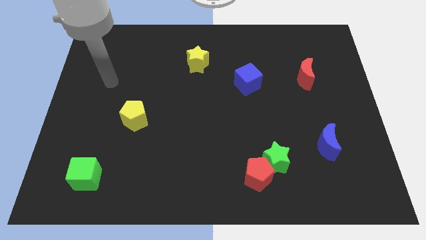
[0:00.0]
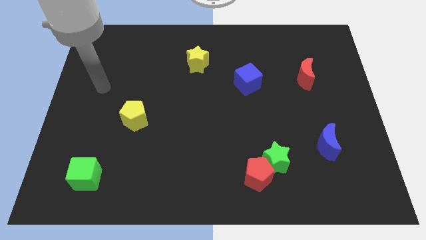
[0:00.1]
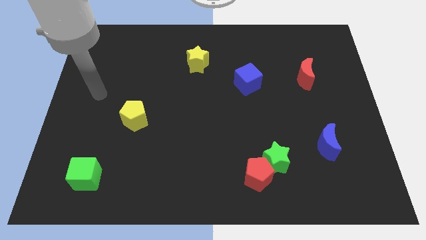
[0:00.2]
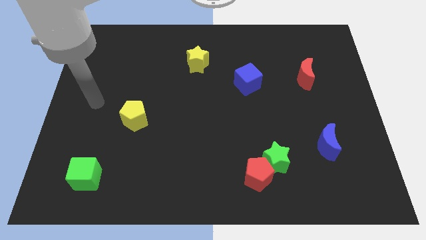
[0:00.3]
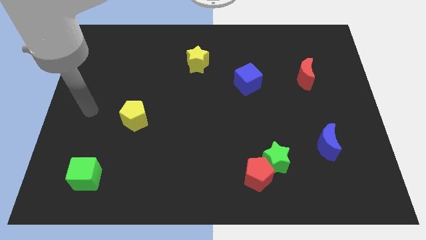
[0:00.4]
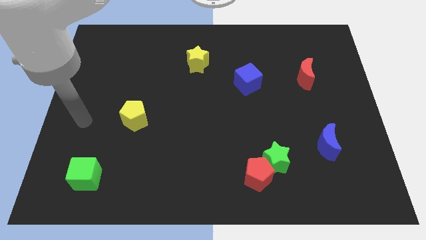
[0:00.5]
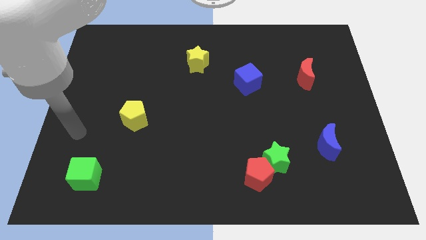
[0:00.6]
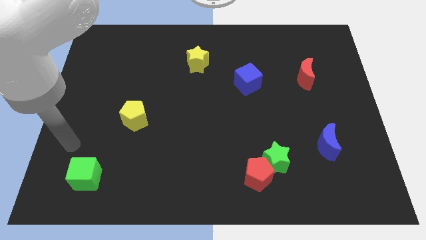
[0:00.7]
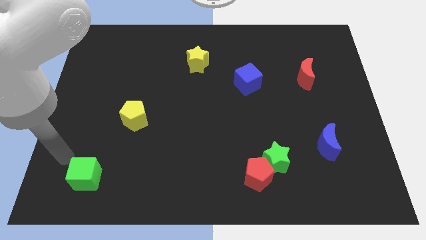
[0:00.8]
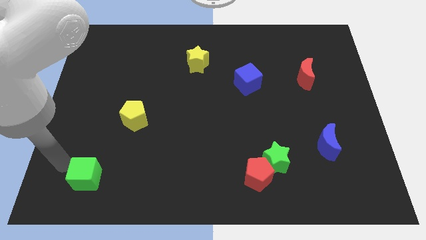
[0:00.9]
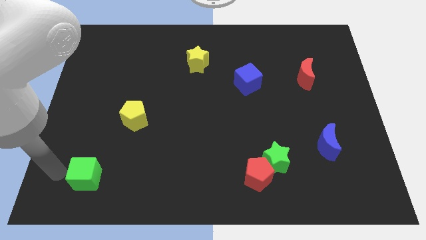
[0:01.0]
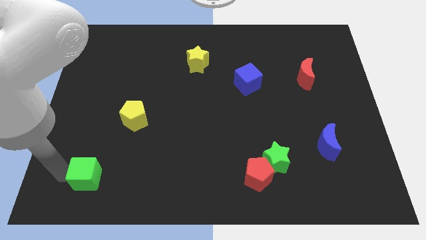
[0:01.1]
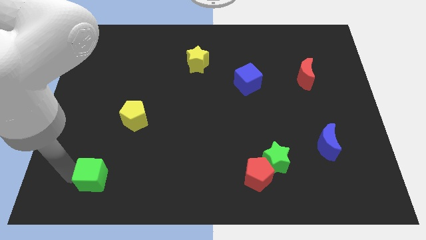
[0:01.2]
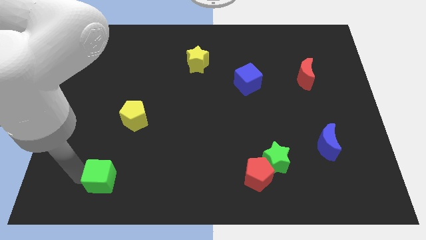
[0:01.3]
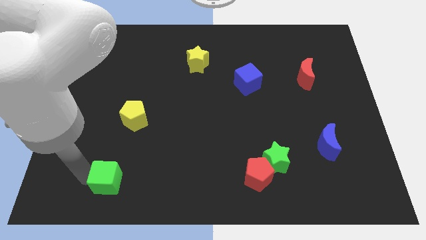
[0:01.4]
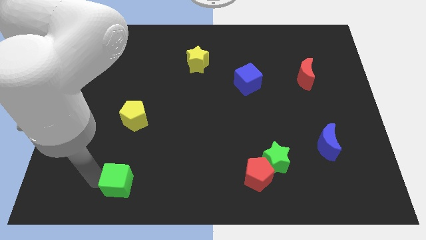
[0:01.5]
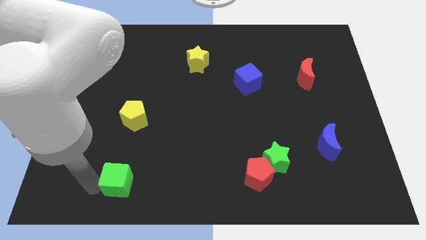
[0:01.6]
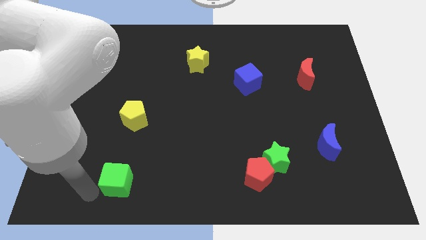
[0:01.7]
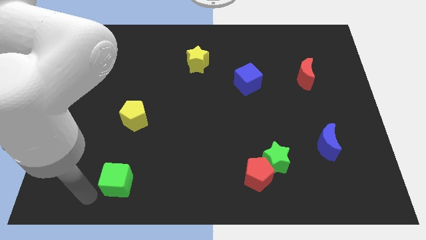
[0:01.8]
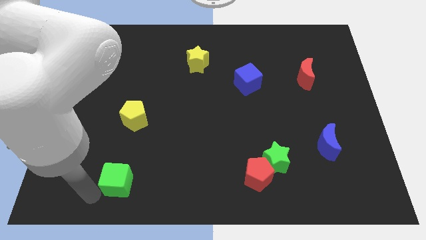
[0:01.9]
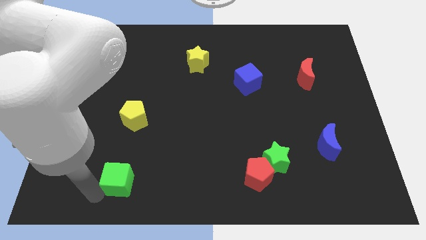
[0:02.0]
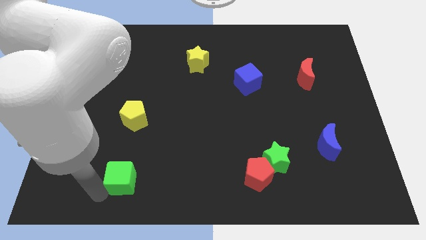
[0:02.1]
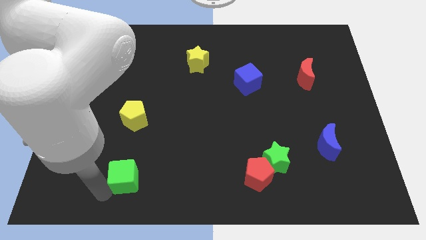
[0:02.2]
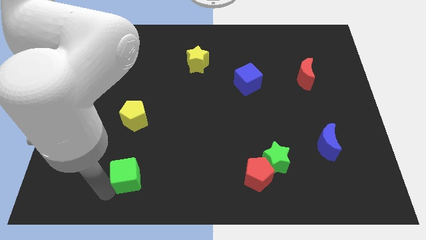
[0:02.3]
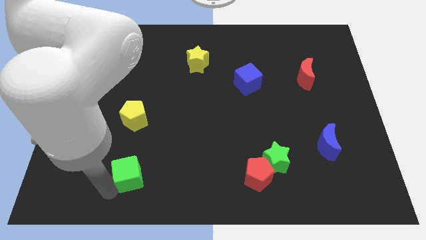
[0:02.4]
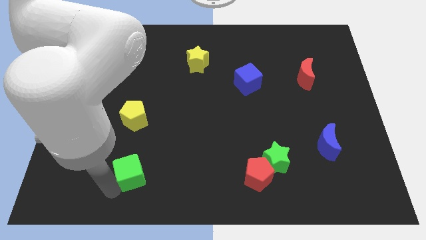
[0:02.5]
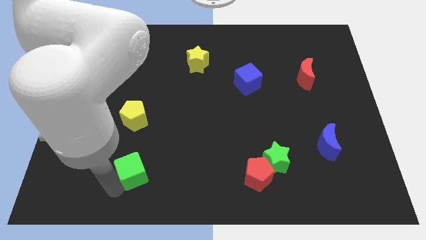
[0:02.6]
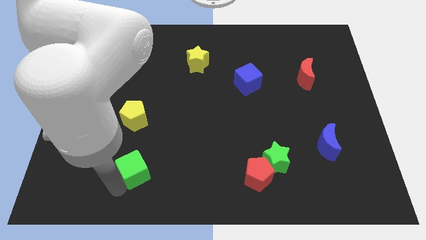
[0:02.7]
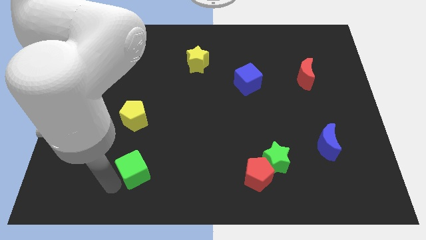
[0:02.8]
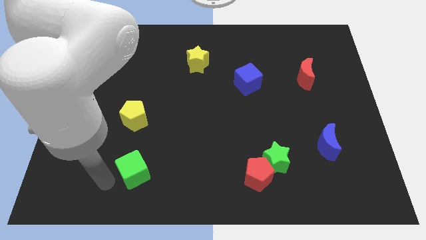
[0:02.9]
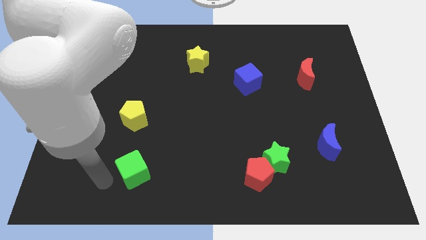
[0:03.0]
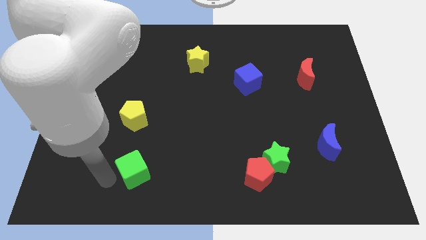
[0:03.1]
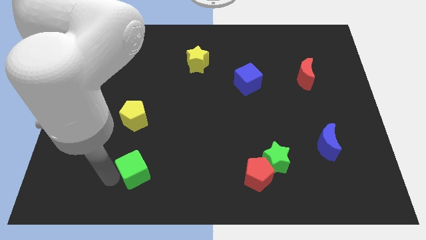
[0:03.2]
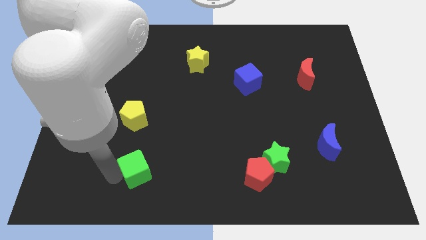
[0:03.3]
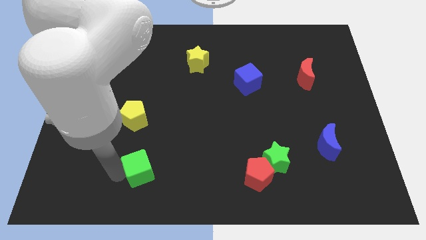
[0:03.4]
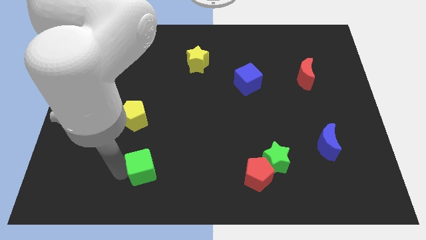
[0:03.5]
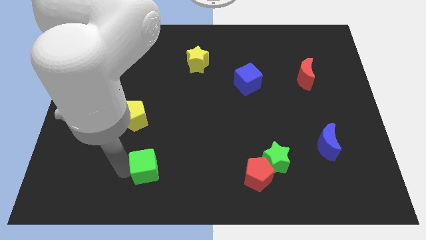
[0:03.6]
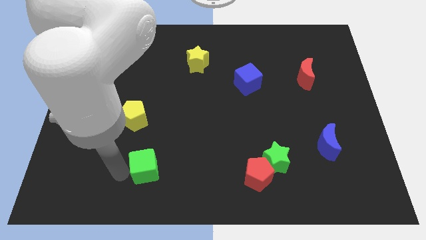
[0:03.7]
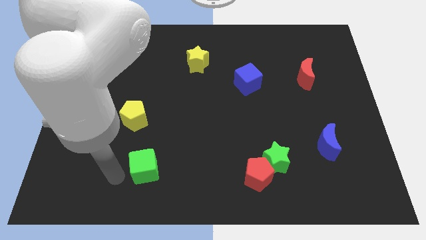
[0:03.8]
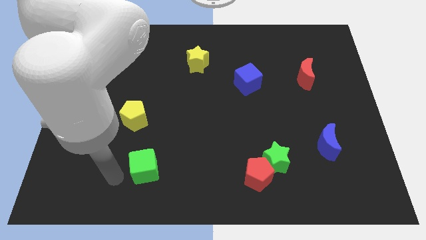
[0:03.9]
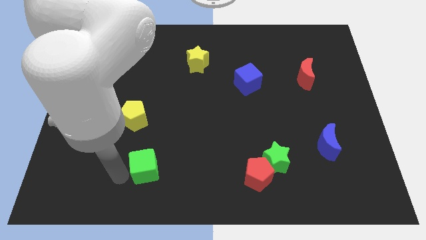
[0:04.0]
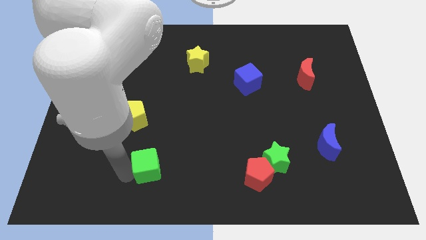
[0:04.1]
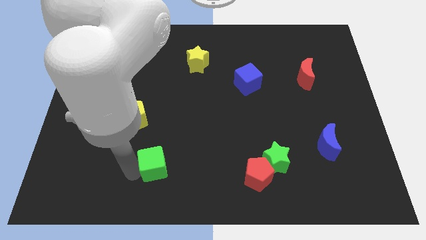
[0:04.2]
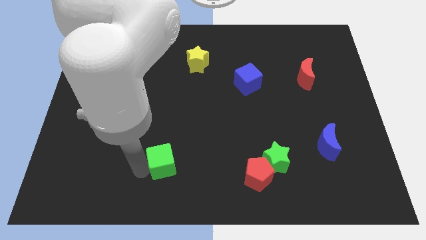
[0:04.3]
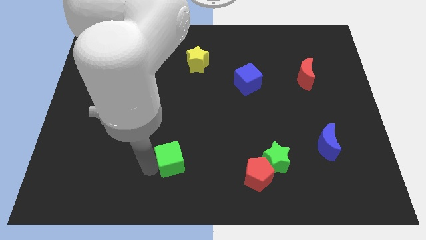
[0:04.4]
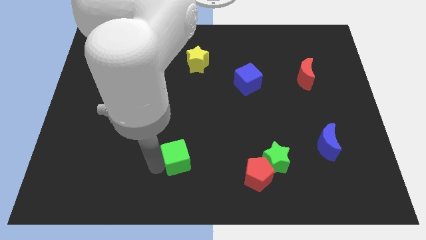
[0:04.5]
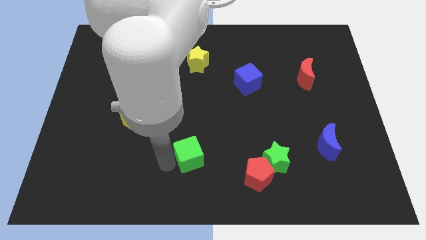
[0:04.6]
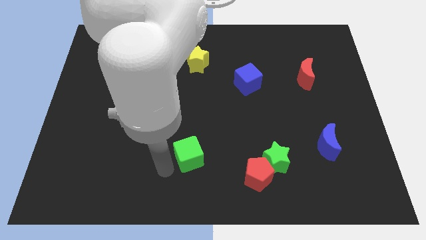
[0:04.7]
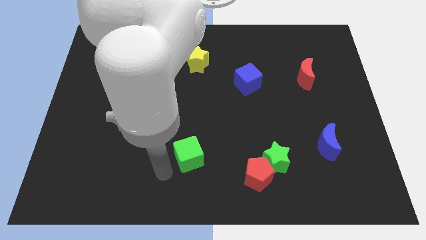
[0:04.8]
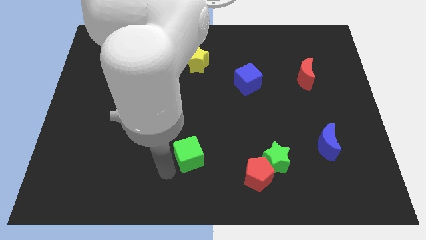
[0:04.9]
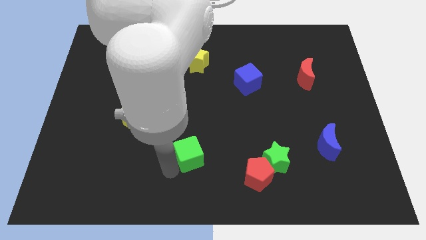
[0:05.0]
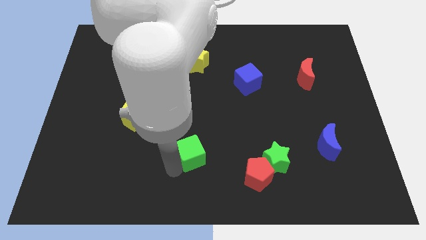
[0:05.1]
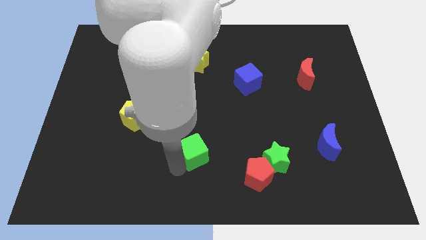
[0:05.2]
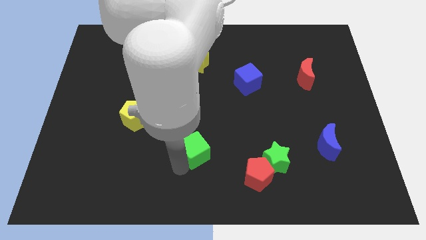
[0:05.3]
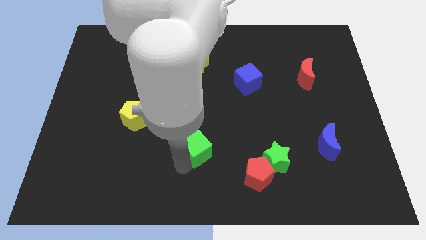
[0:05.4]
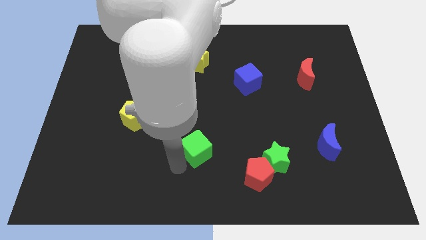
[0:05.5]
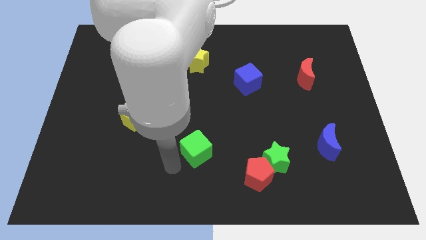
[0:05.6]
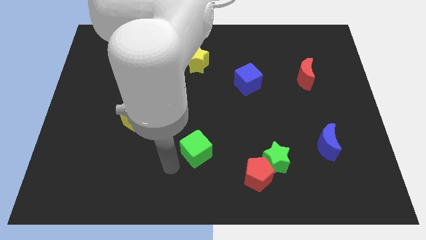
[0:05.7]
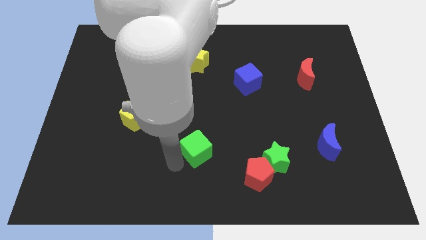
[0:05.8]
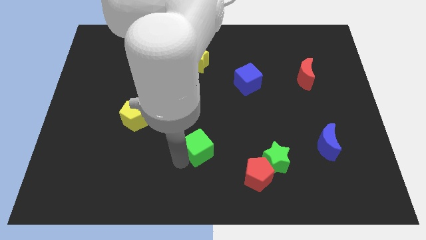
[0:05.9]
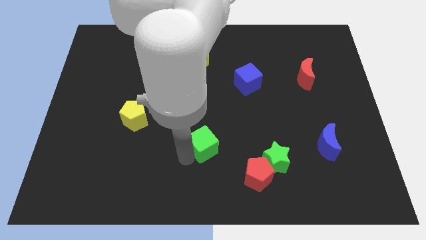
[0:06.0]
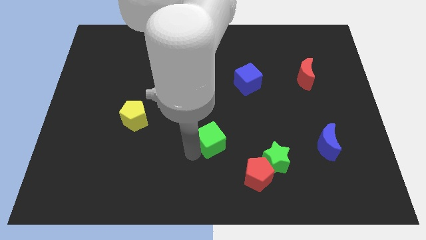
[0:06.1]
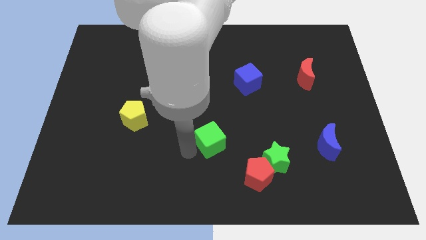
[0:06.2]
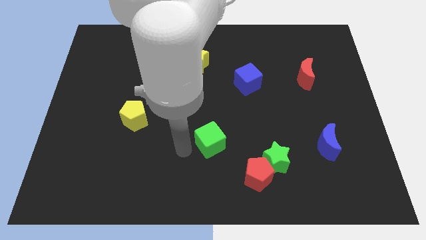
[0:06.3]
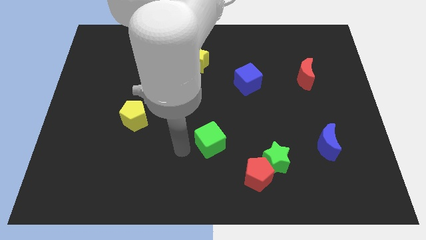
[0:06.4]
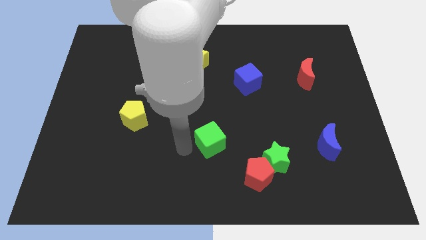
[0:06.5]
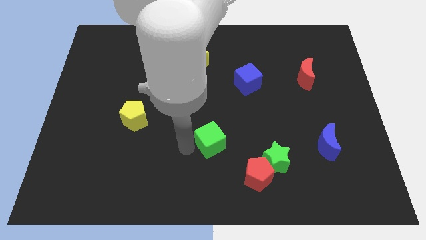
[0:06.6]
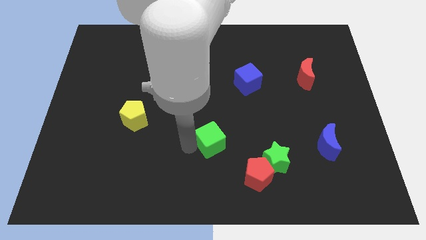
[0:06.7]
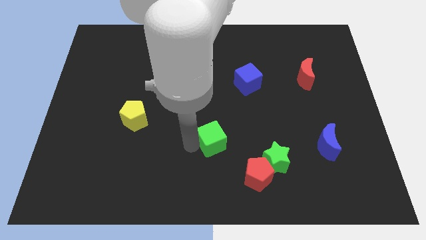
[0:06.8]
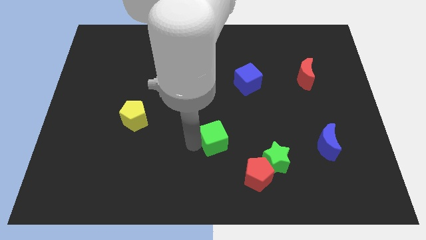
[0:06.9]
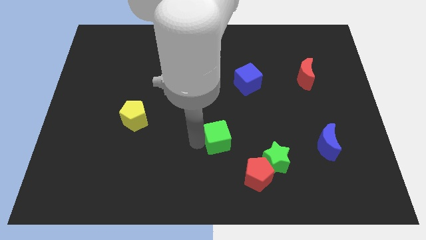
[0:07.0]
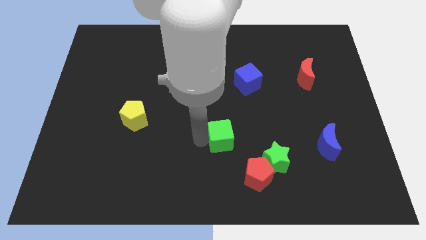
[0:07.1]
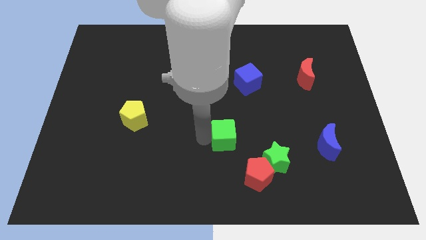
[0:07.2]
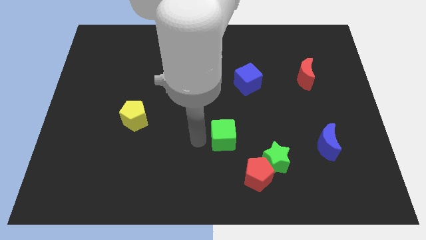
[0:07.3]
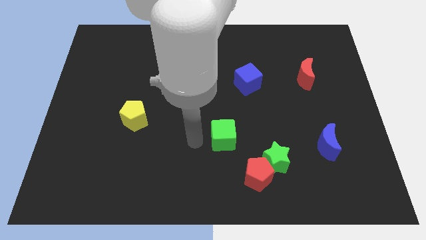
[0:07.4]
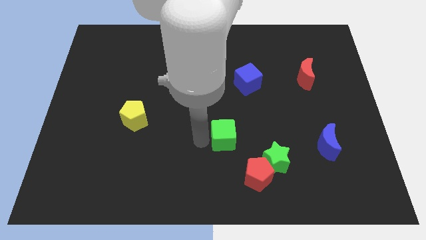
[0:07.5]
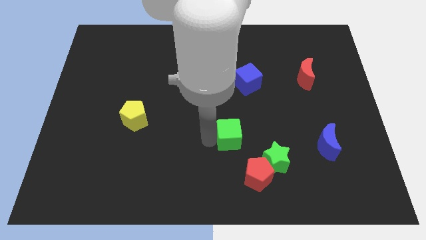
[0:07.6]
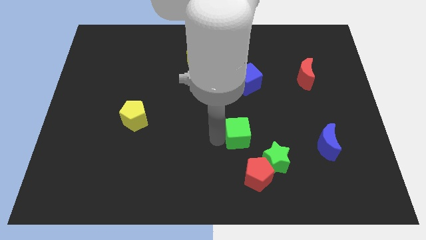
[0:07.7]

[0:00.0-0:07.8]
move the green cube to the top side of the red pentagon
